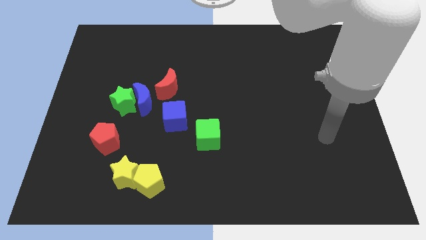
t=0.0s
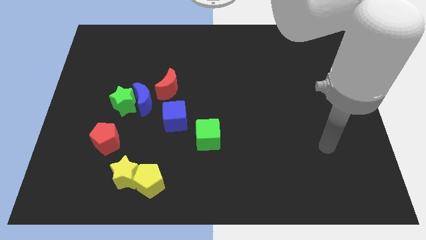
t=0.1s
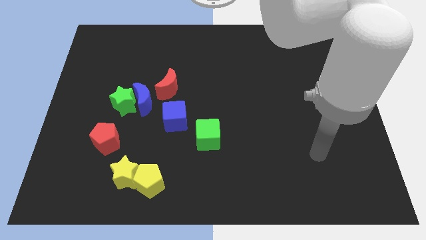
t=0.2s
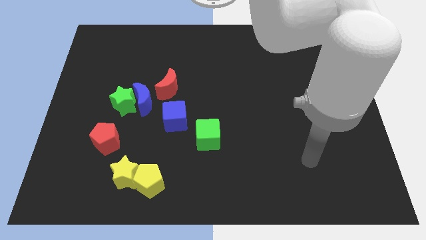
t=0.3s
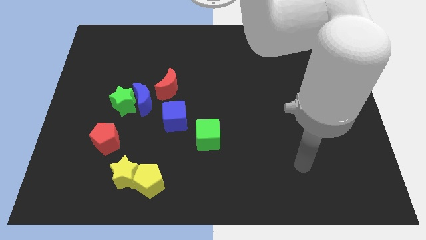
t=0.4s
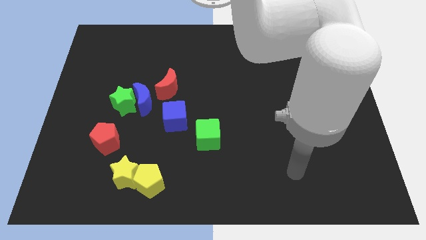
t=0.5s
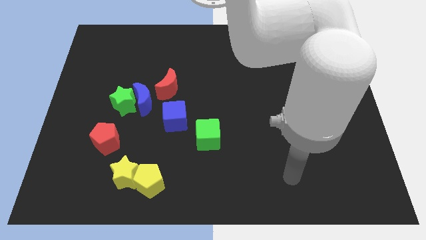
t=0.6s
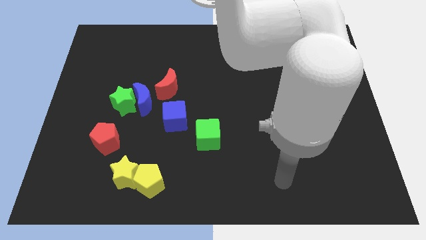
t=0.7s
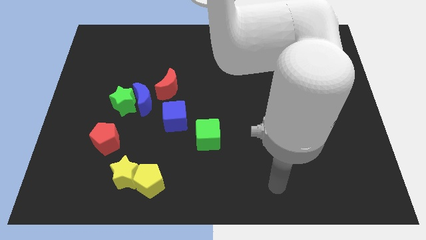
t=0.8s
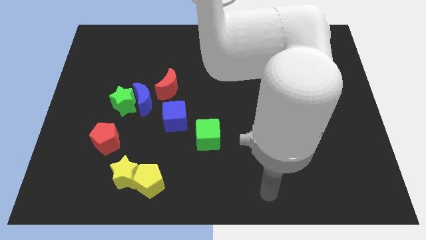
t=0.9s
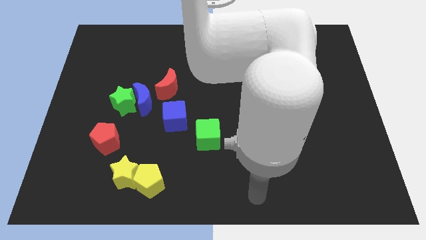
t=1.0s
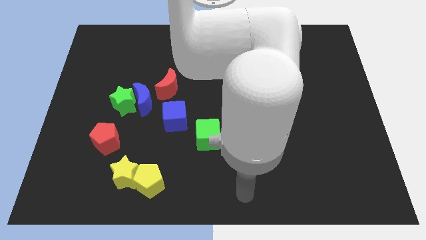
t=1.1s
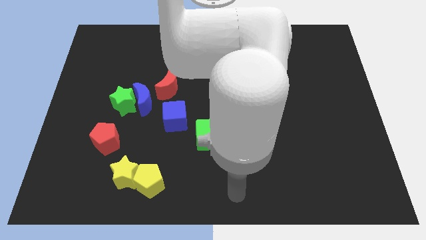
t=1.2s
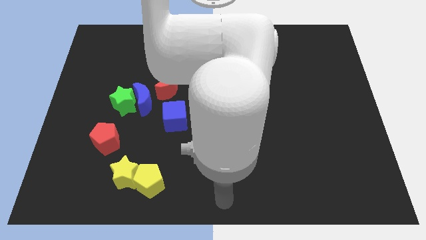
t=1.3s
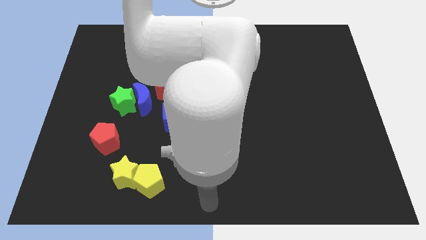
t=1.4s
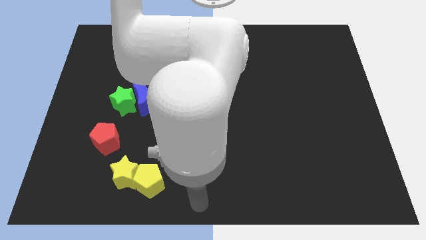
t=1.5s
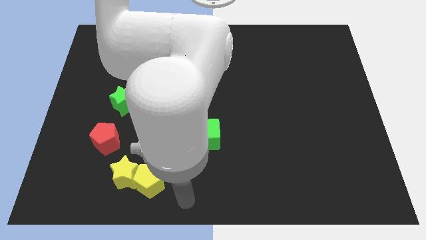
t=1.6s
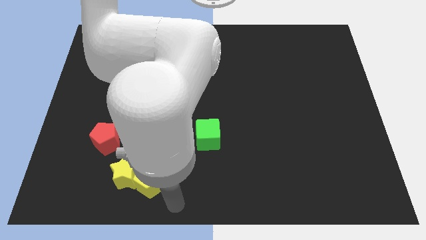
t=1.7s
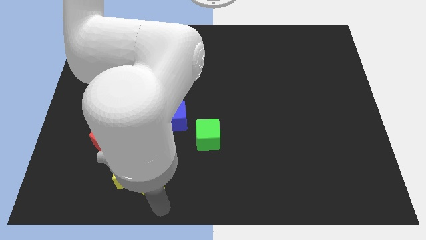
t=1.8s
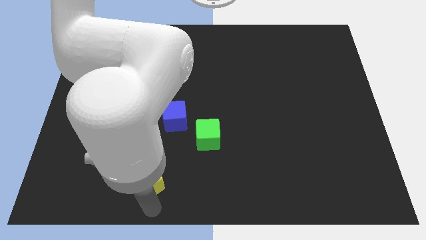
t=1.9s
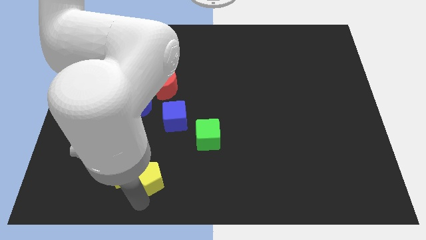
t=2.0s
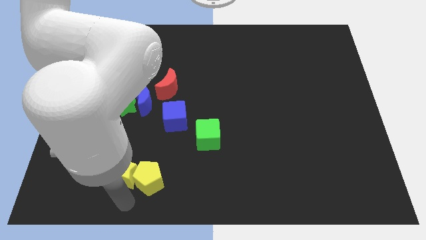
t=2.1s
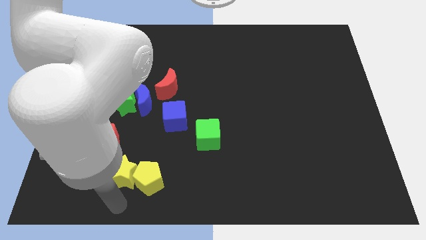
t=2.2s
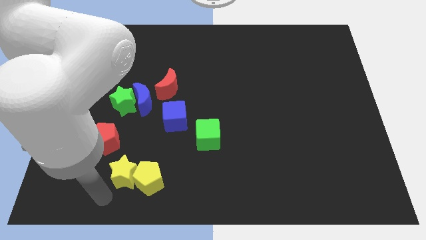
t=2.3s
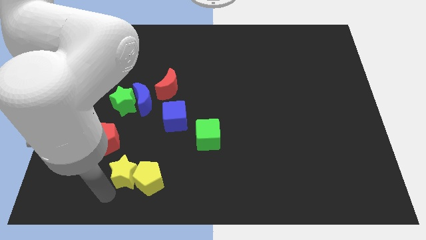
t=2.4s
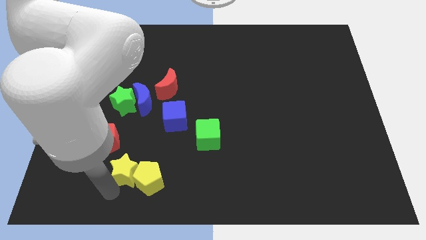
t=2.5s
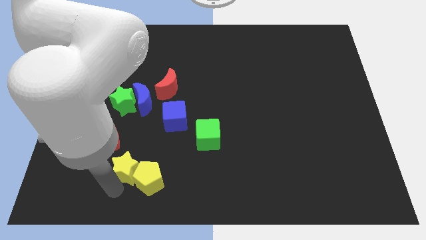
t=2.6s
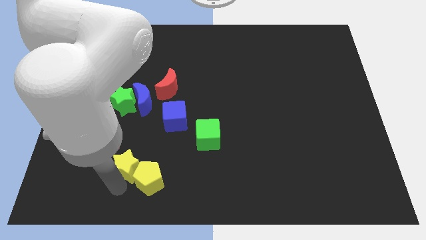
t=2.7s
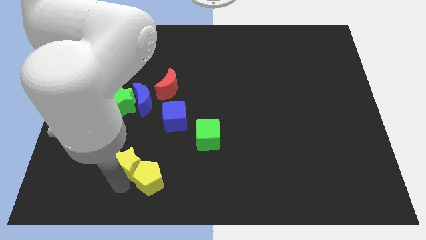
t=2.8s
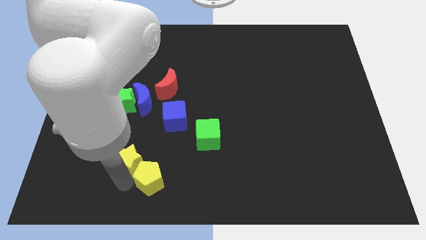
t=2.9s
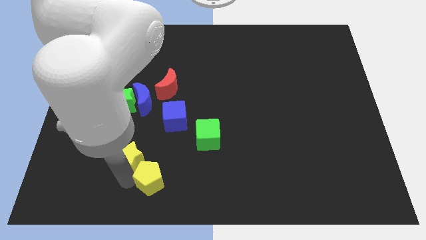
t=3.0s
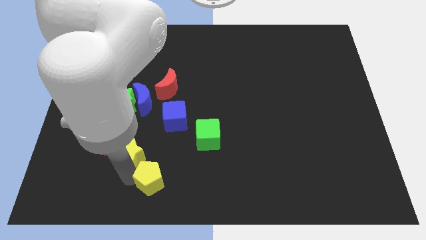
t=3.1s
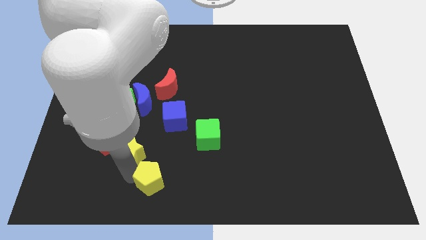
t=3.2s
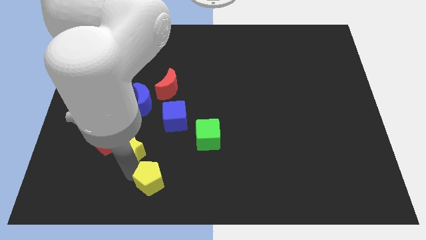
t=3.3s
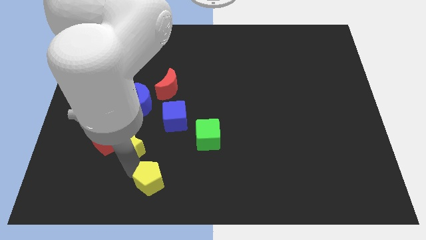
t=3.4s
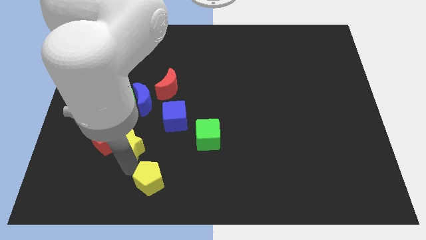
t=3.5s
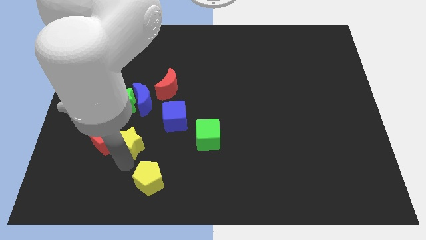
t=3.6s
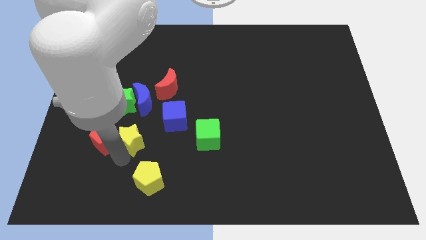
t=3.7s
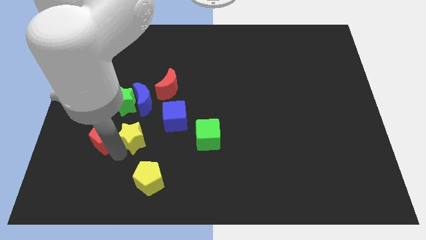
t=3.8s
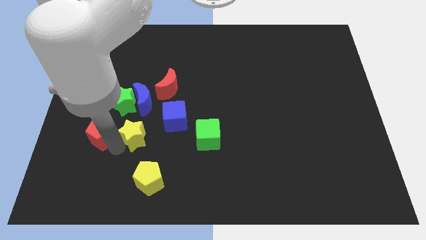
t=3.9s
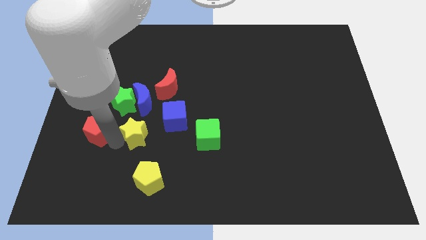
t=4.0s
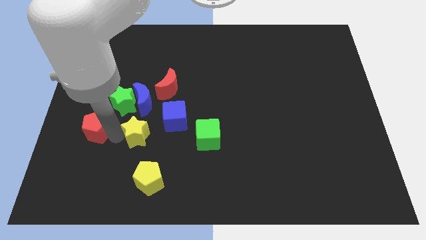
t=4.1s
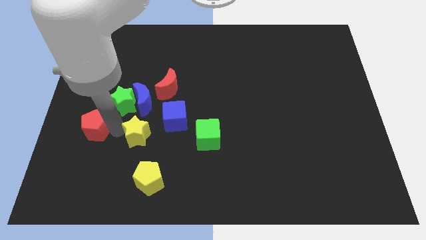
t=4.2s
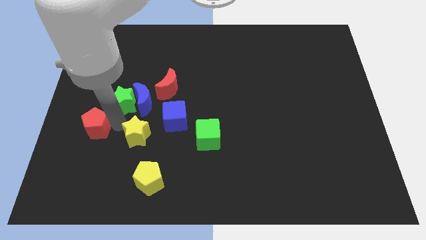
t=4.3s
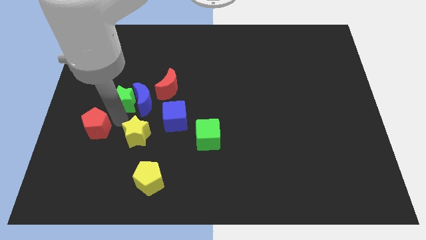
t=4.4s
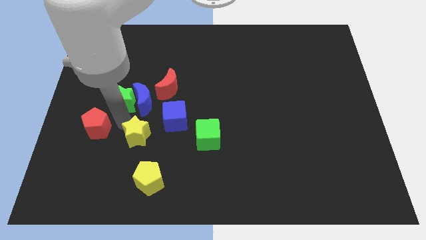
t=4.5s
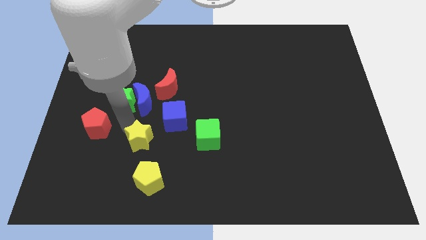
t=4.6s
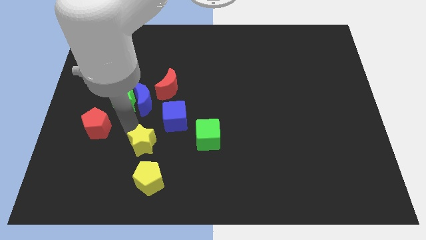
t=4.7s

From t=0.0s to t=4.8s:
move the yellow star diagonally upwards and to the right a little bit

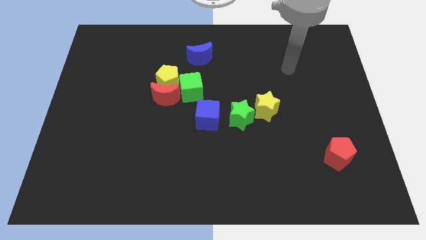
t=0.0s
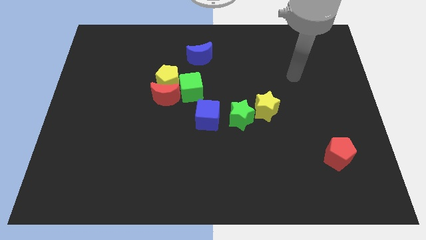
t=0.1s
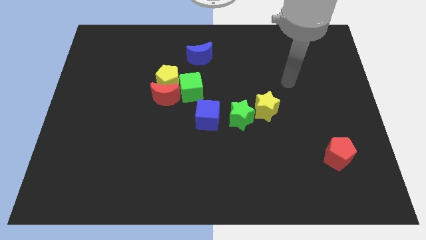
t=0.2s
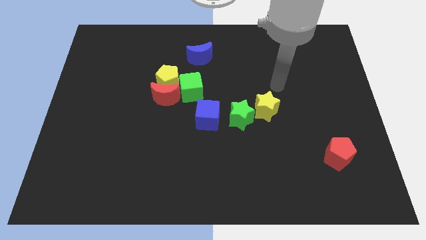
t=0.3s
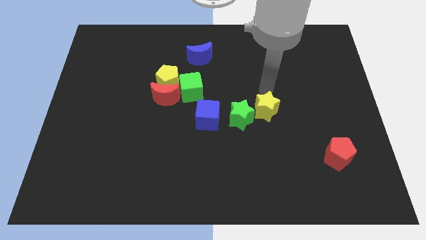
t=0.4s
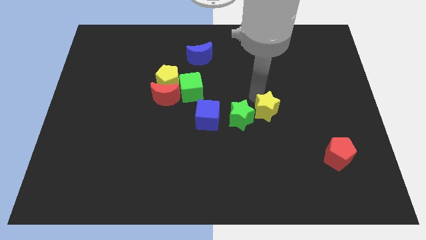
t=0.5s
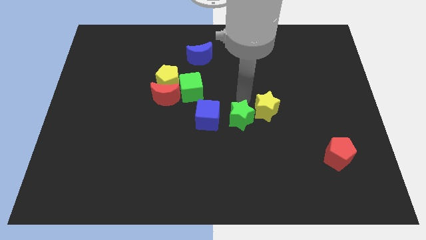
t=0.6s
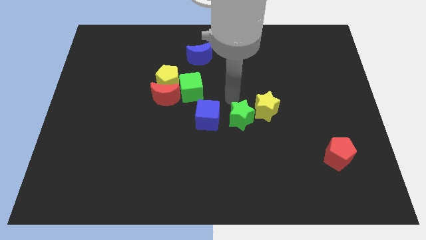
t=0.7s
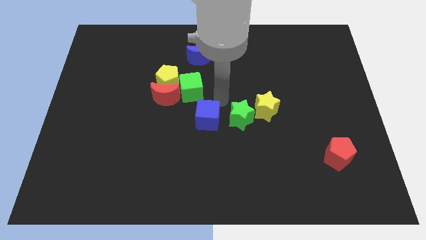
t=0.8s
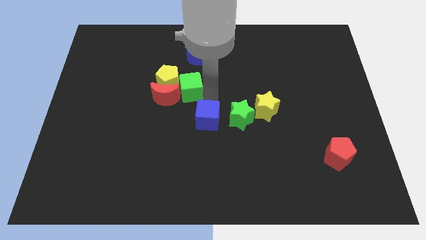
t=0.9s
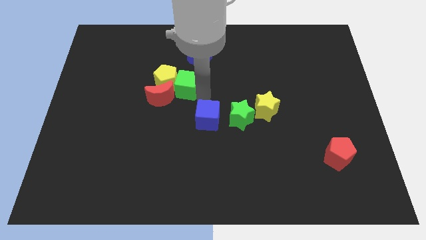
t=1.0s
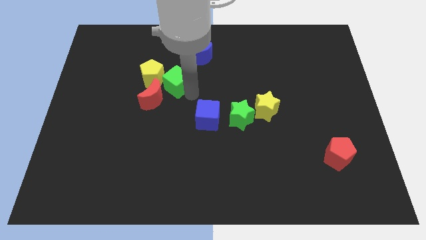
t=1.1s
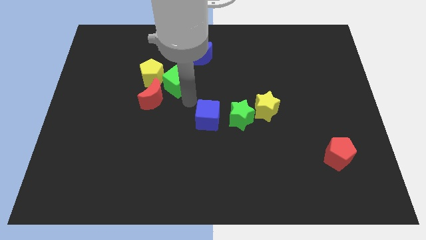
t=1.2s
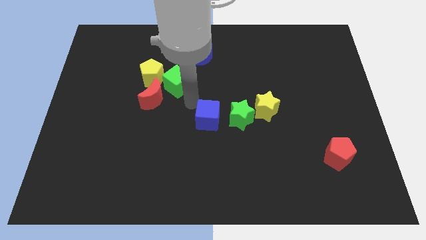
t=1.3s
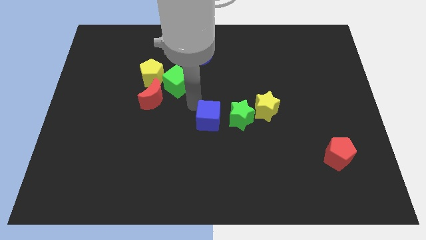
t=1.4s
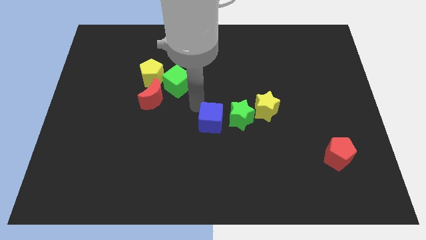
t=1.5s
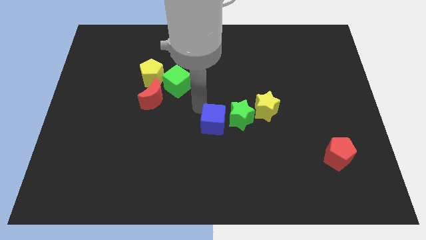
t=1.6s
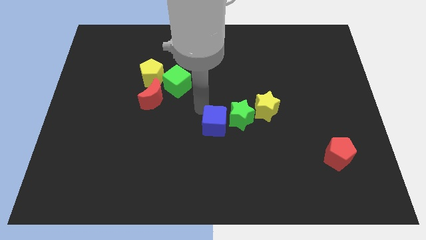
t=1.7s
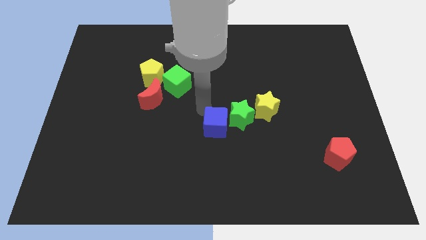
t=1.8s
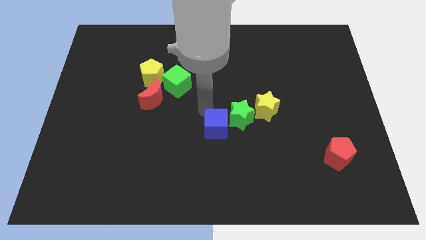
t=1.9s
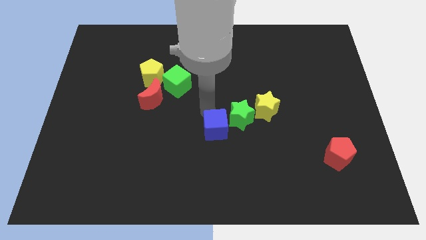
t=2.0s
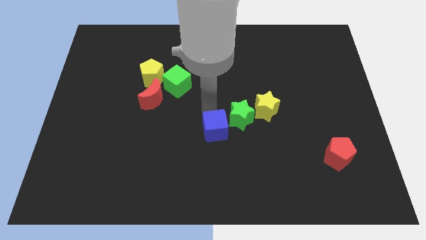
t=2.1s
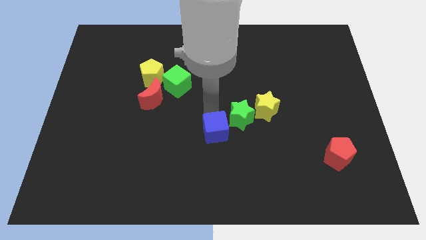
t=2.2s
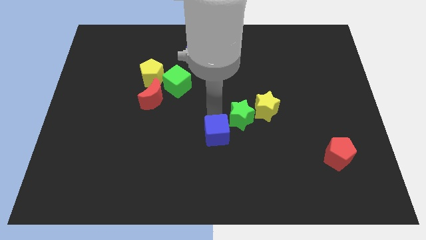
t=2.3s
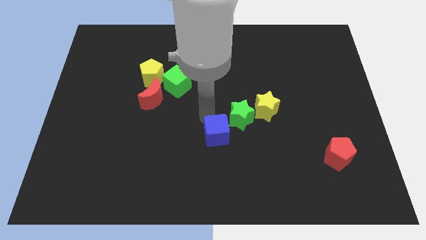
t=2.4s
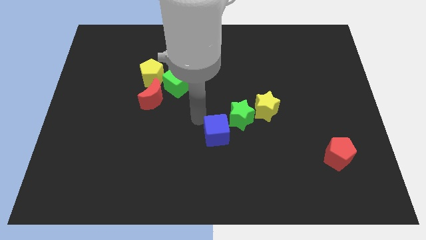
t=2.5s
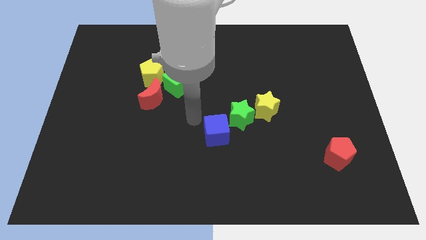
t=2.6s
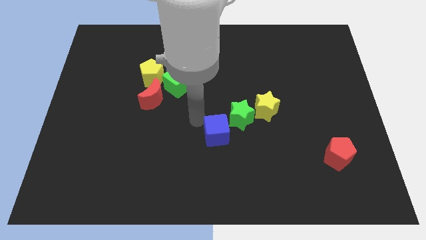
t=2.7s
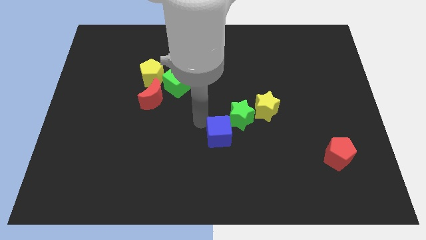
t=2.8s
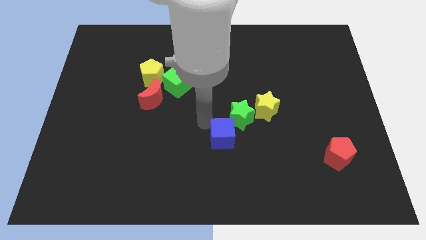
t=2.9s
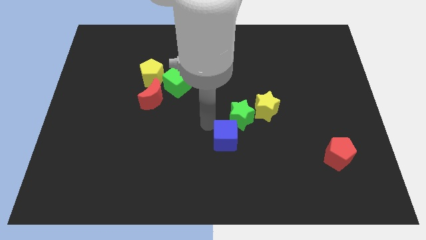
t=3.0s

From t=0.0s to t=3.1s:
move the blue cube a little bit down and to the right

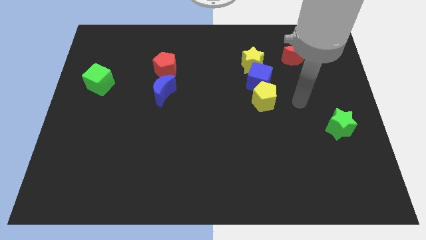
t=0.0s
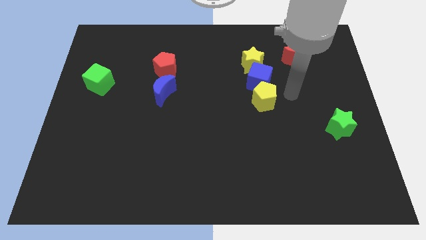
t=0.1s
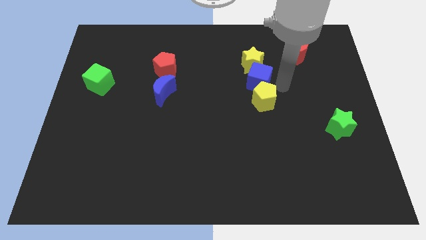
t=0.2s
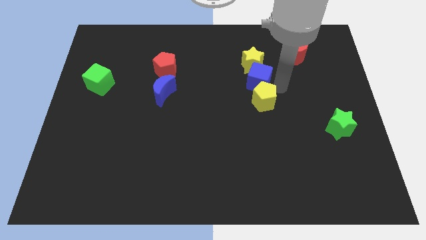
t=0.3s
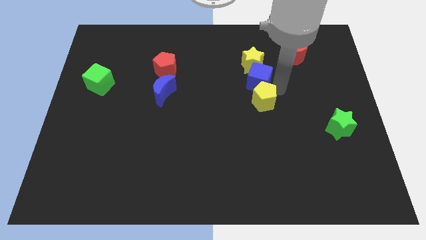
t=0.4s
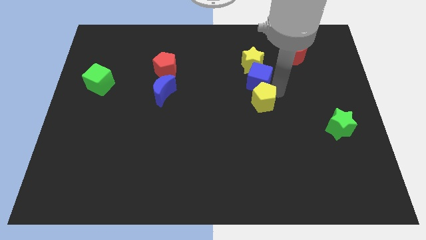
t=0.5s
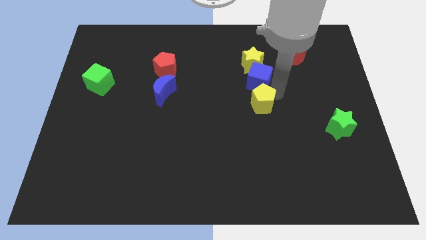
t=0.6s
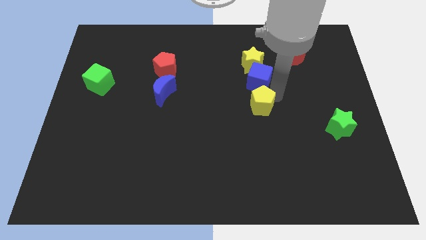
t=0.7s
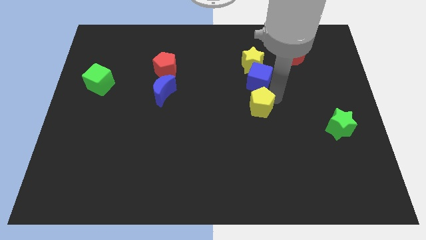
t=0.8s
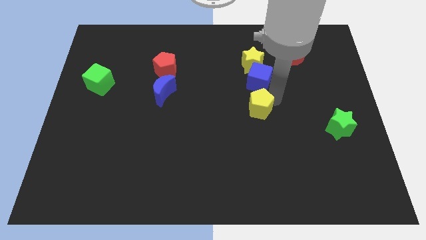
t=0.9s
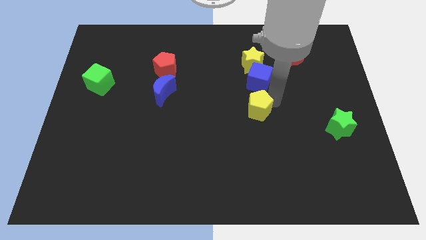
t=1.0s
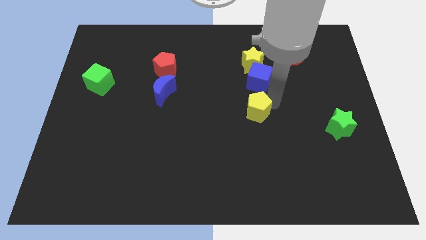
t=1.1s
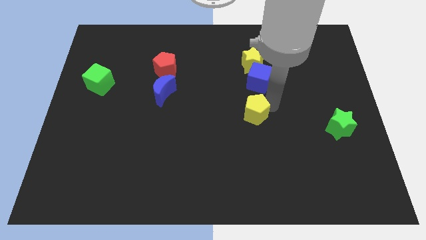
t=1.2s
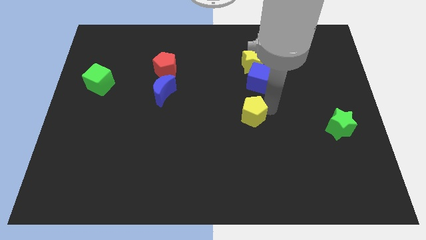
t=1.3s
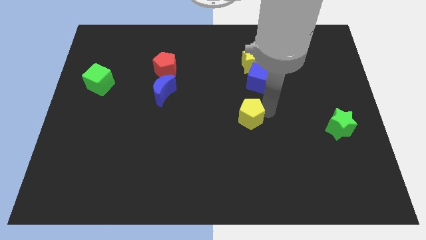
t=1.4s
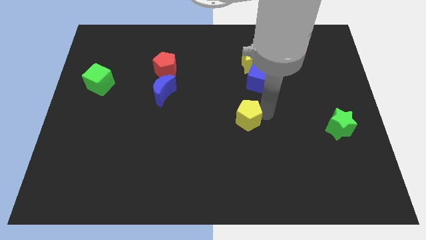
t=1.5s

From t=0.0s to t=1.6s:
slide the yellow pentagon a little bit diagonally downwards and to the left
